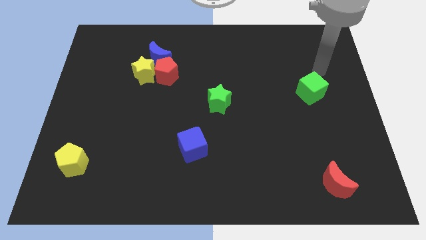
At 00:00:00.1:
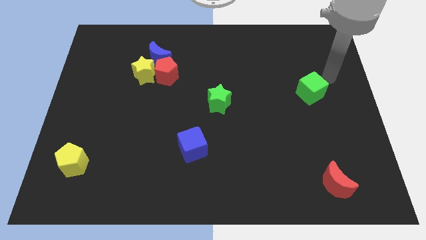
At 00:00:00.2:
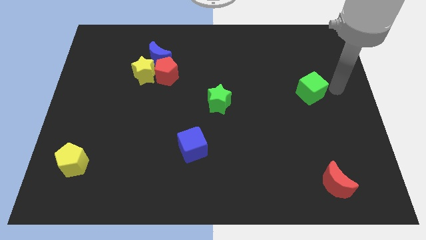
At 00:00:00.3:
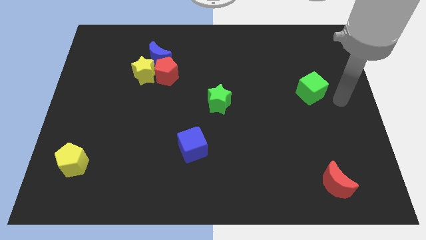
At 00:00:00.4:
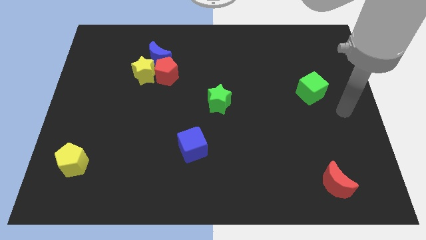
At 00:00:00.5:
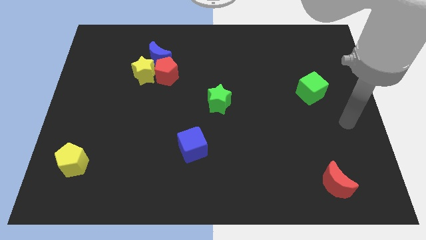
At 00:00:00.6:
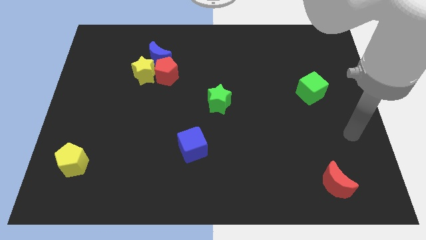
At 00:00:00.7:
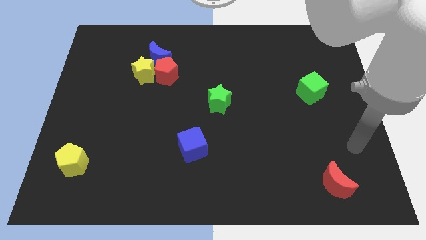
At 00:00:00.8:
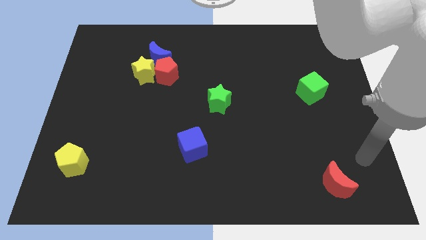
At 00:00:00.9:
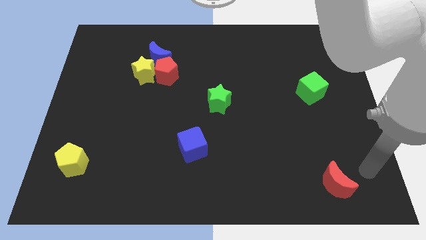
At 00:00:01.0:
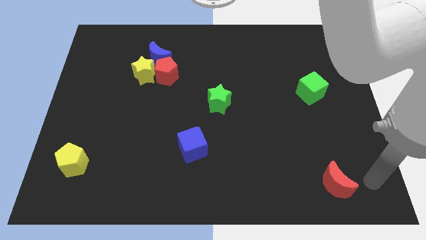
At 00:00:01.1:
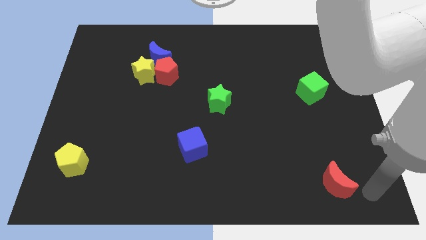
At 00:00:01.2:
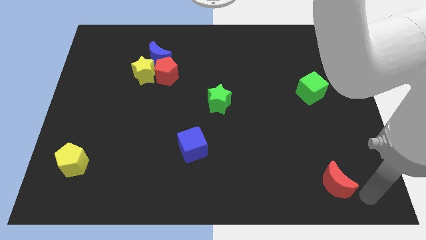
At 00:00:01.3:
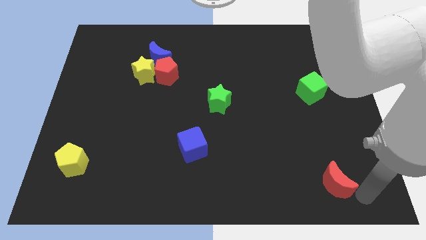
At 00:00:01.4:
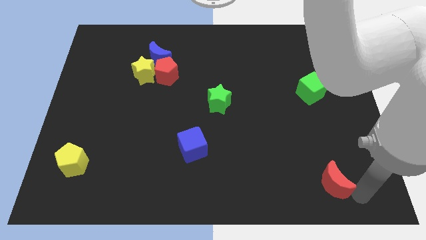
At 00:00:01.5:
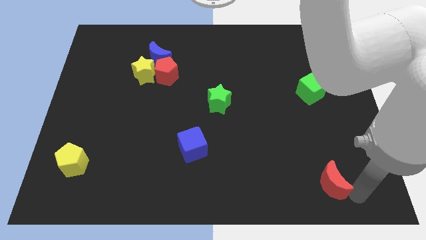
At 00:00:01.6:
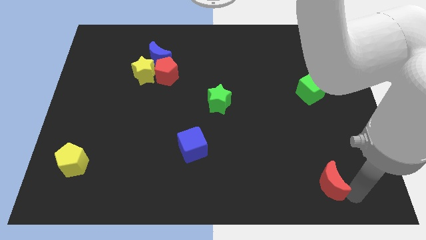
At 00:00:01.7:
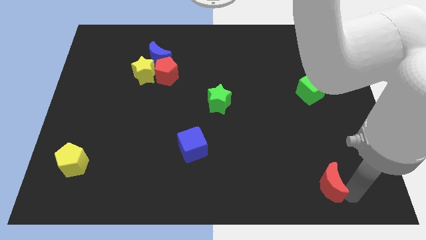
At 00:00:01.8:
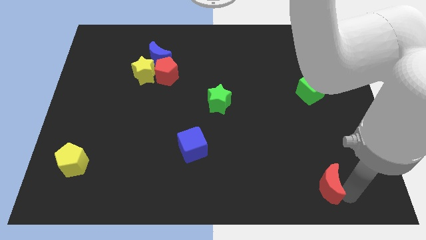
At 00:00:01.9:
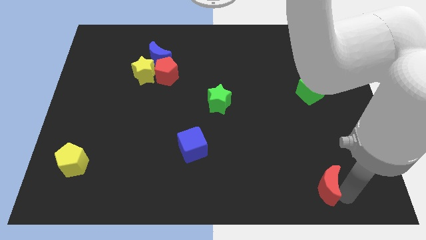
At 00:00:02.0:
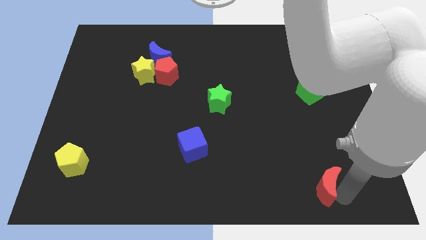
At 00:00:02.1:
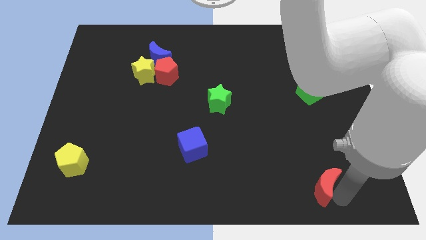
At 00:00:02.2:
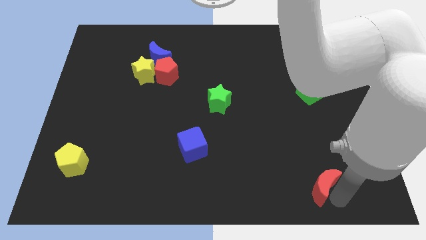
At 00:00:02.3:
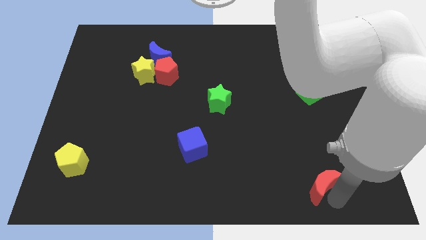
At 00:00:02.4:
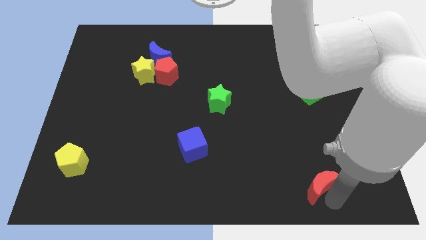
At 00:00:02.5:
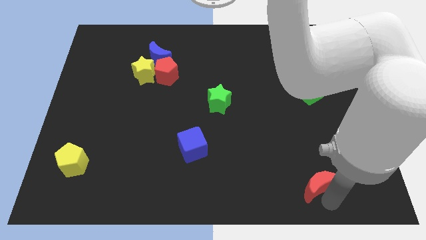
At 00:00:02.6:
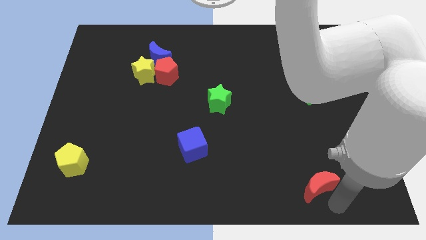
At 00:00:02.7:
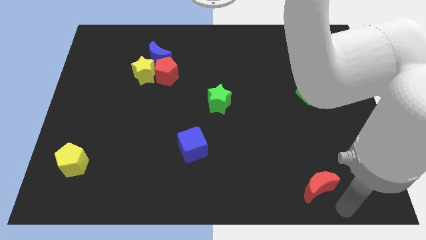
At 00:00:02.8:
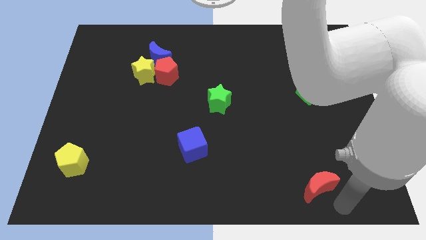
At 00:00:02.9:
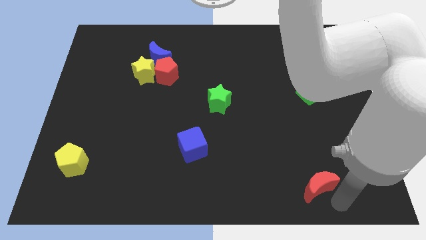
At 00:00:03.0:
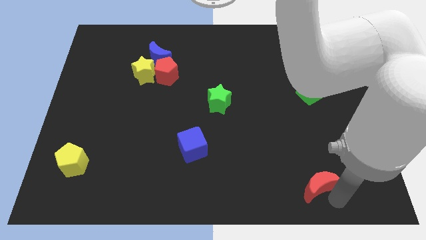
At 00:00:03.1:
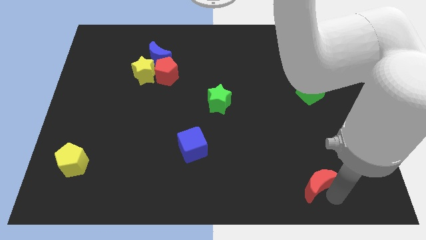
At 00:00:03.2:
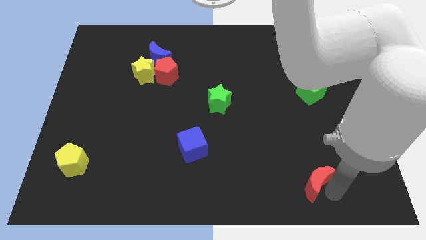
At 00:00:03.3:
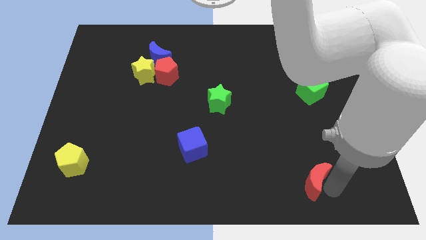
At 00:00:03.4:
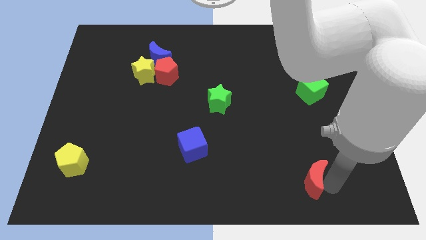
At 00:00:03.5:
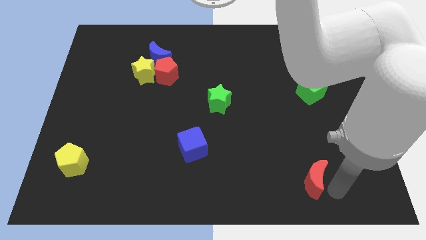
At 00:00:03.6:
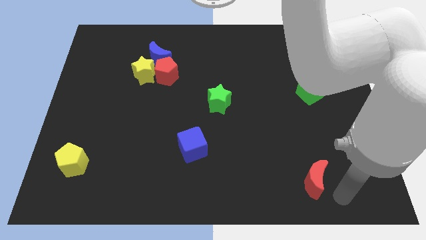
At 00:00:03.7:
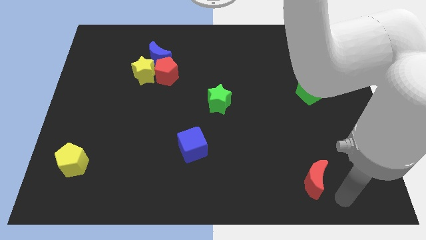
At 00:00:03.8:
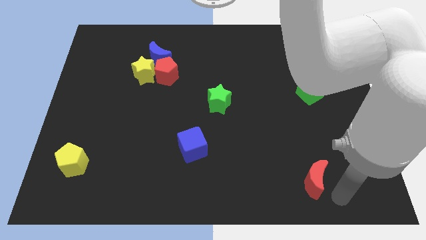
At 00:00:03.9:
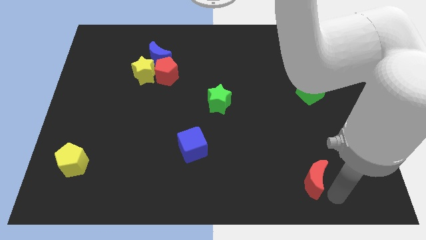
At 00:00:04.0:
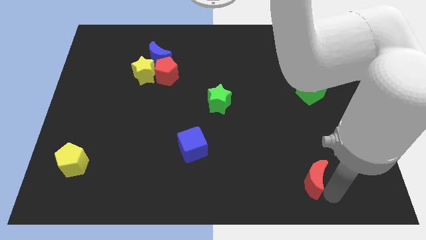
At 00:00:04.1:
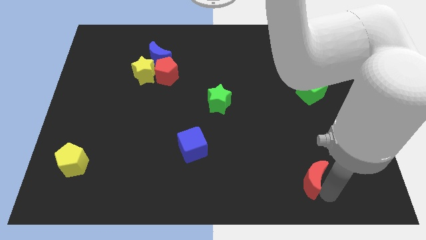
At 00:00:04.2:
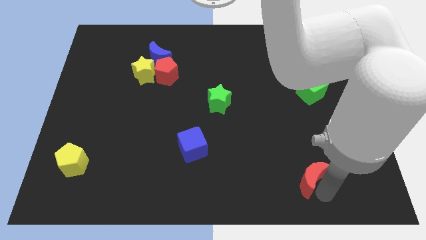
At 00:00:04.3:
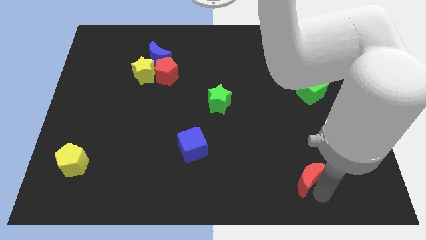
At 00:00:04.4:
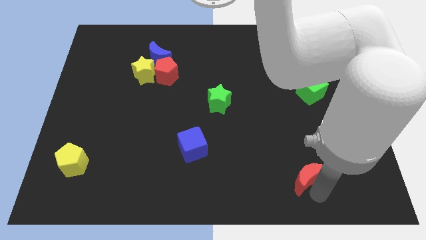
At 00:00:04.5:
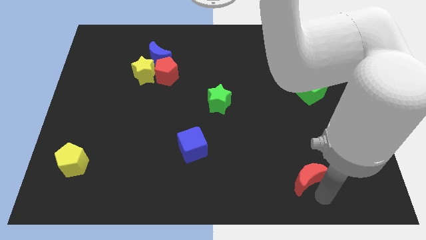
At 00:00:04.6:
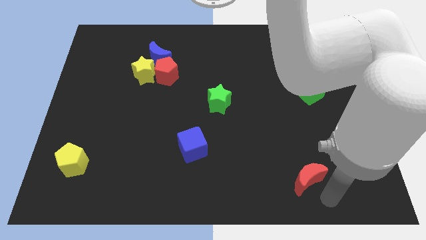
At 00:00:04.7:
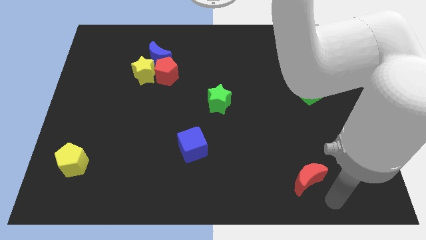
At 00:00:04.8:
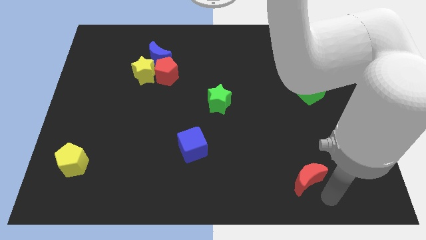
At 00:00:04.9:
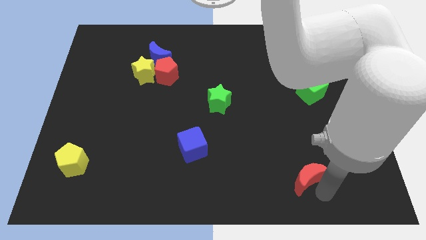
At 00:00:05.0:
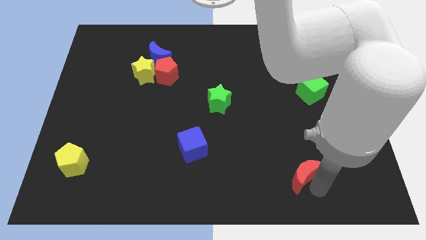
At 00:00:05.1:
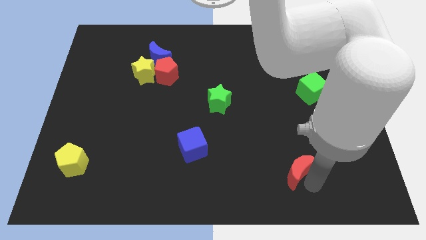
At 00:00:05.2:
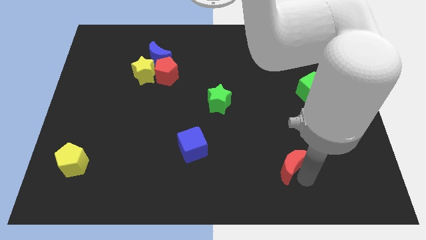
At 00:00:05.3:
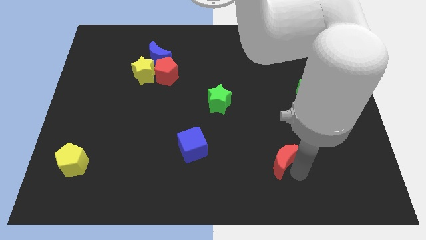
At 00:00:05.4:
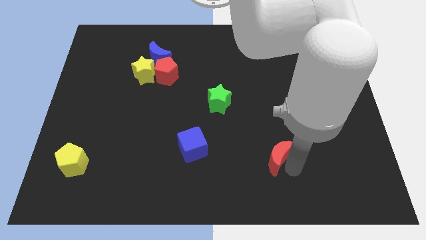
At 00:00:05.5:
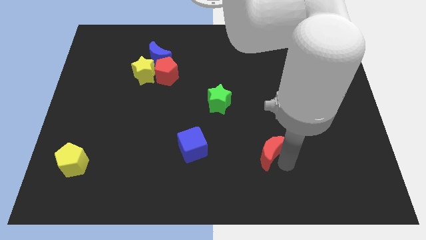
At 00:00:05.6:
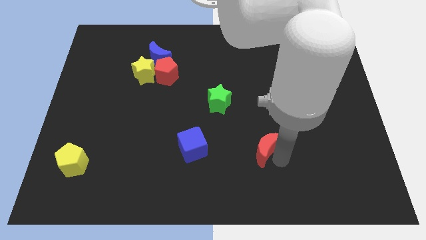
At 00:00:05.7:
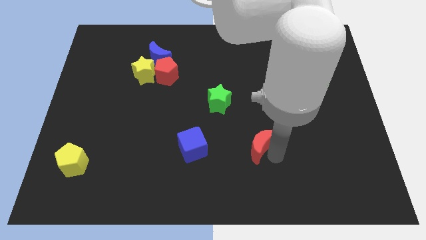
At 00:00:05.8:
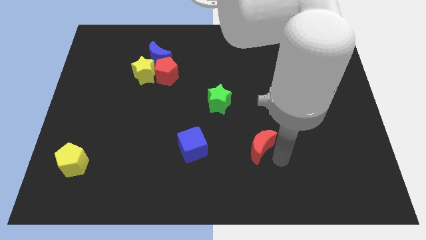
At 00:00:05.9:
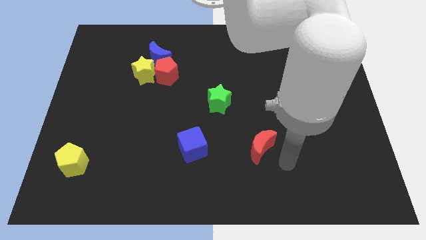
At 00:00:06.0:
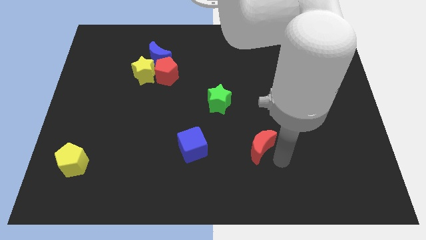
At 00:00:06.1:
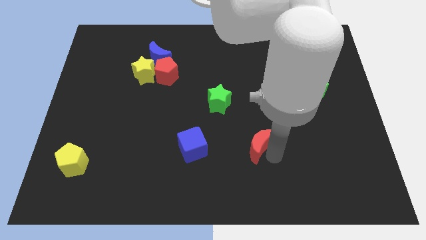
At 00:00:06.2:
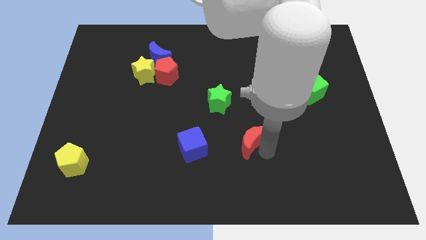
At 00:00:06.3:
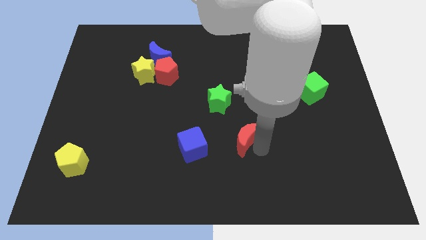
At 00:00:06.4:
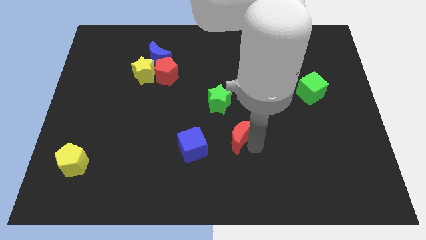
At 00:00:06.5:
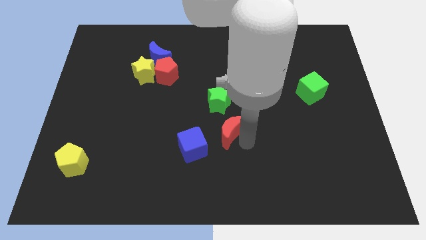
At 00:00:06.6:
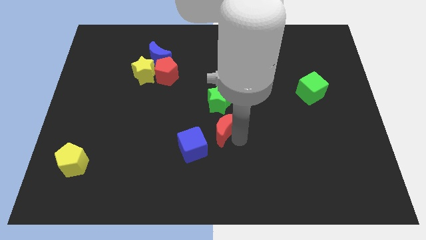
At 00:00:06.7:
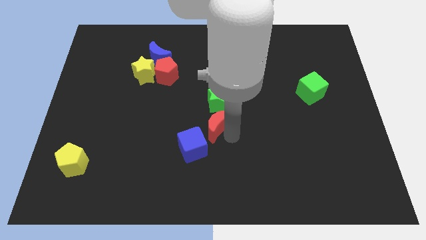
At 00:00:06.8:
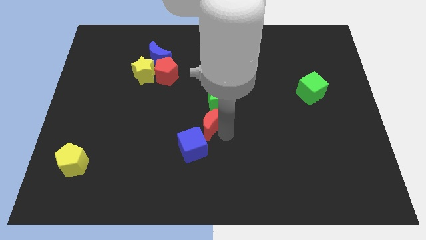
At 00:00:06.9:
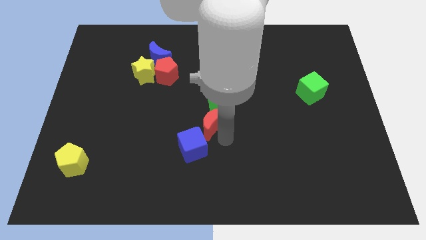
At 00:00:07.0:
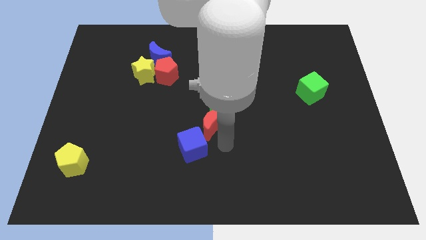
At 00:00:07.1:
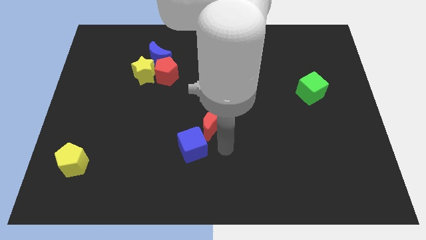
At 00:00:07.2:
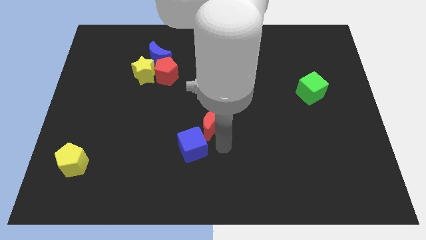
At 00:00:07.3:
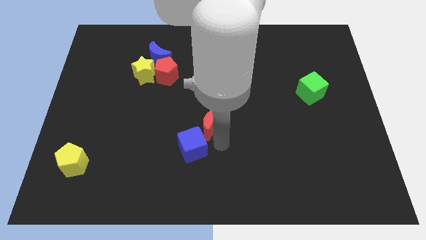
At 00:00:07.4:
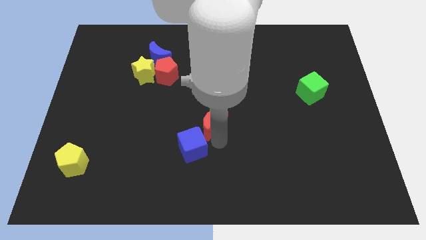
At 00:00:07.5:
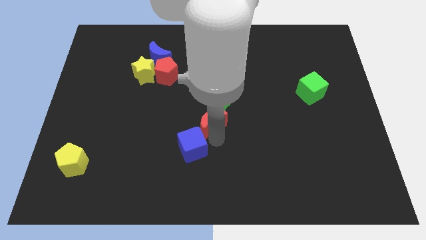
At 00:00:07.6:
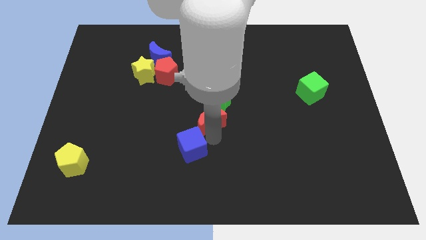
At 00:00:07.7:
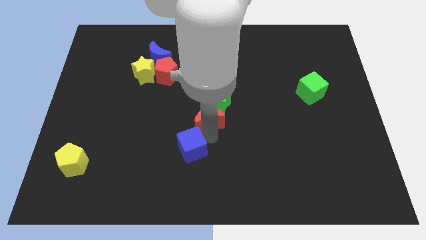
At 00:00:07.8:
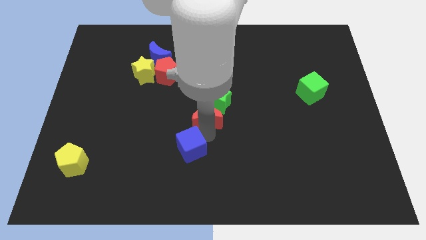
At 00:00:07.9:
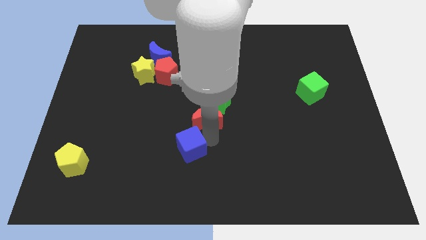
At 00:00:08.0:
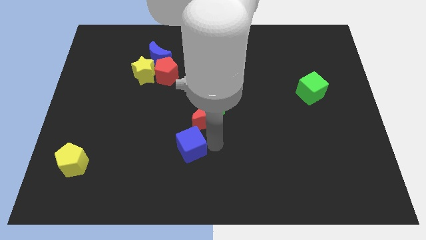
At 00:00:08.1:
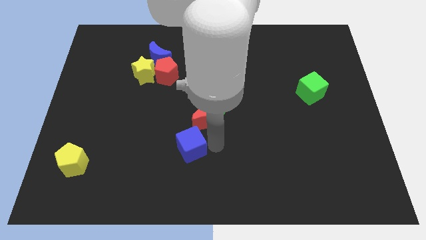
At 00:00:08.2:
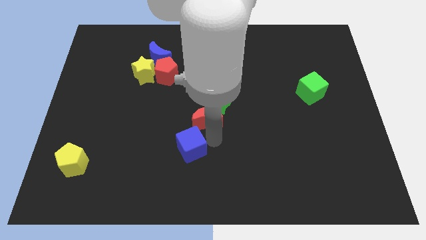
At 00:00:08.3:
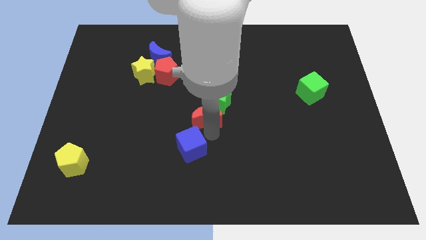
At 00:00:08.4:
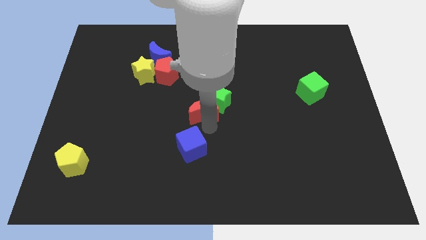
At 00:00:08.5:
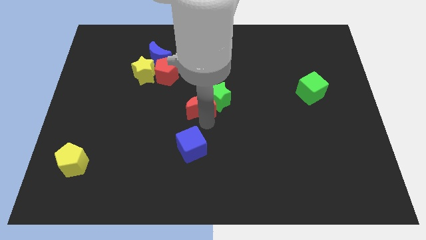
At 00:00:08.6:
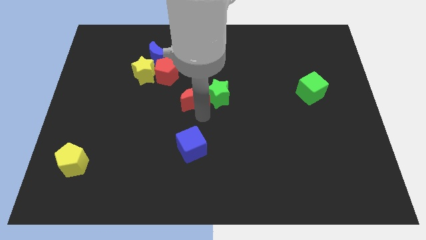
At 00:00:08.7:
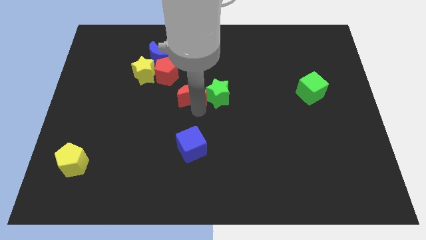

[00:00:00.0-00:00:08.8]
move the red moon to the top left of the green star
